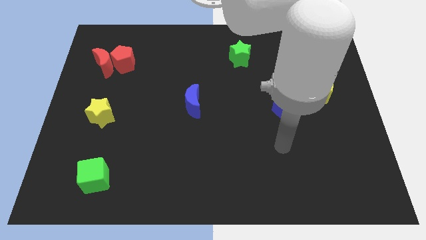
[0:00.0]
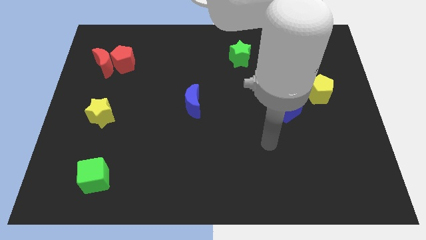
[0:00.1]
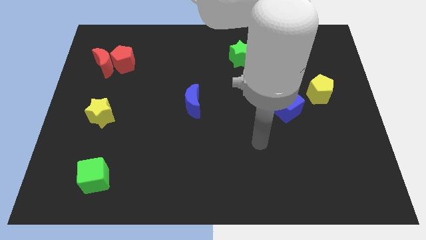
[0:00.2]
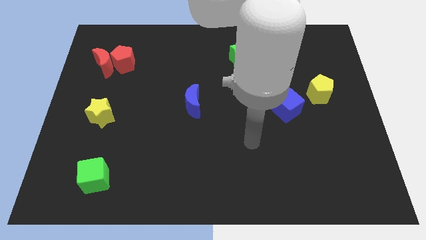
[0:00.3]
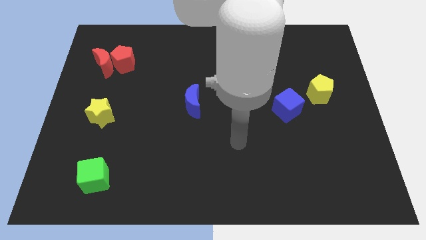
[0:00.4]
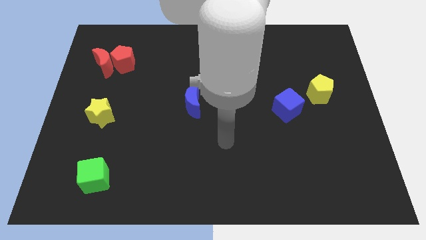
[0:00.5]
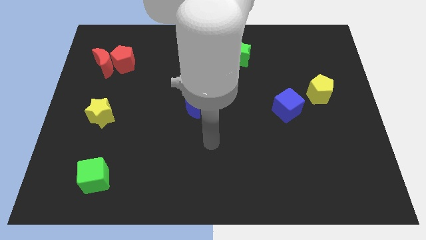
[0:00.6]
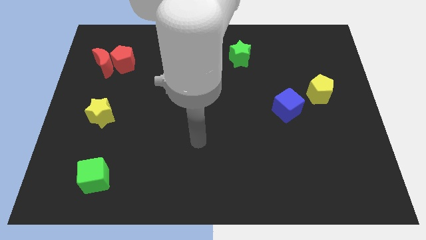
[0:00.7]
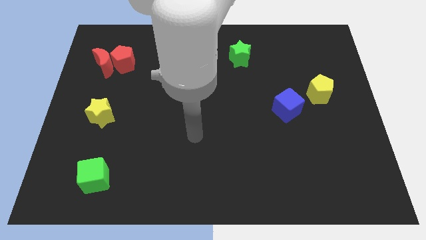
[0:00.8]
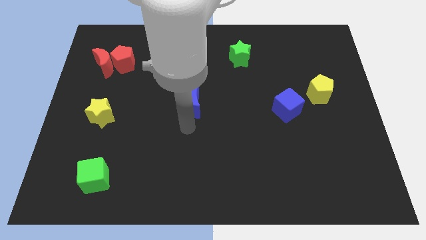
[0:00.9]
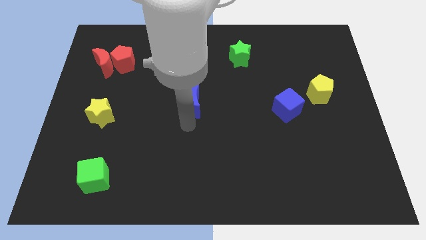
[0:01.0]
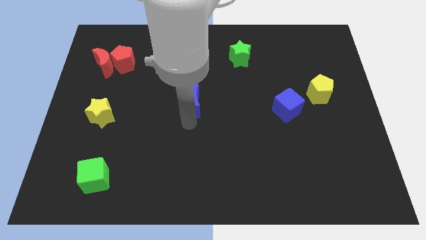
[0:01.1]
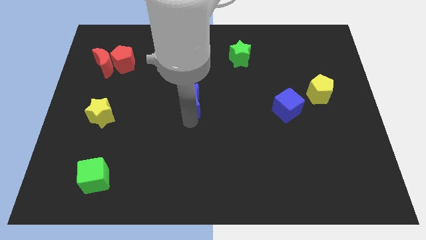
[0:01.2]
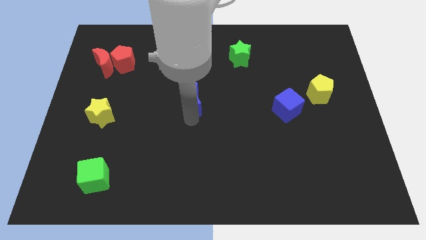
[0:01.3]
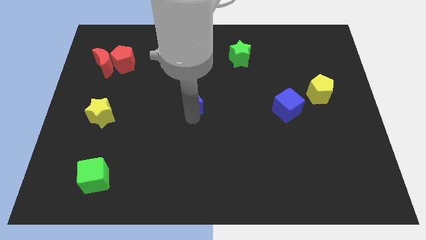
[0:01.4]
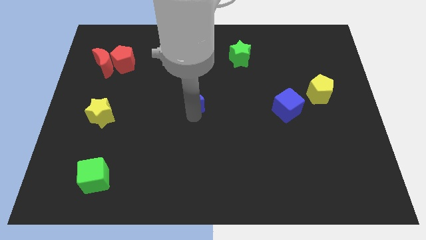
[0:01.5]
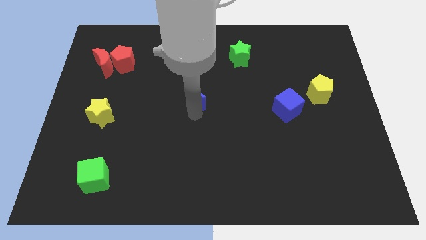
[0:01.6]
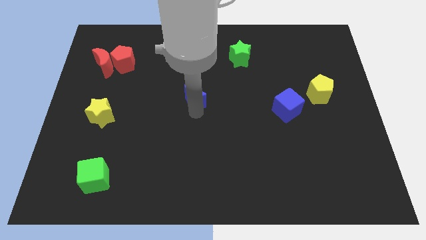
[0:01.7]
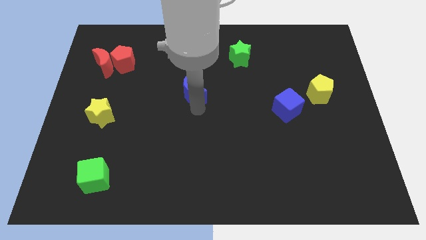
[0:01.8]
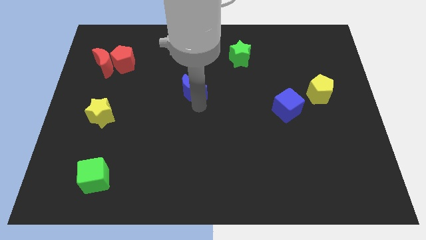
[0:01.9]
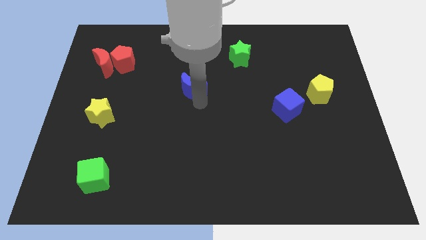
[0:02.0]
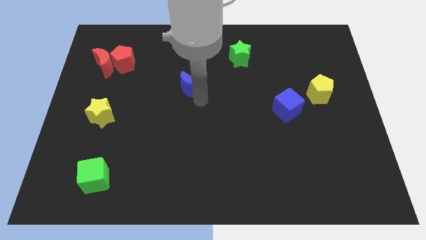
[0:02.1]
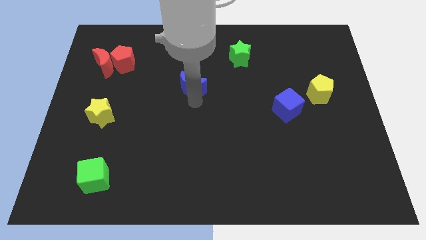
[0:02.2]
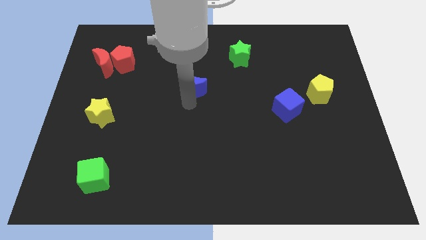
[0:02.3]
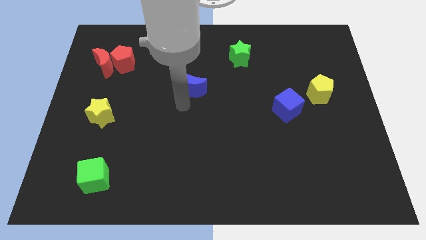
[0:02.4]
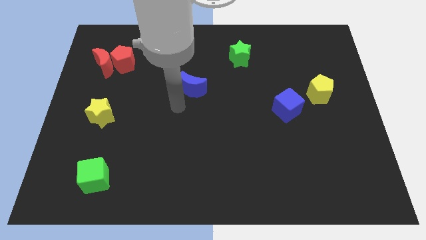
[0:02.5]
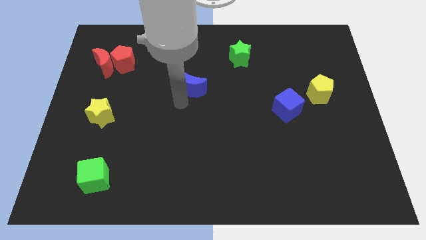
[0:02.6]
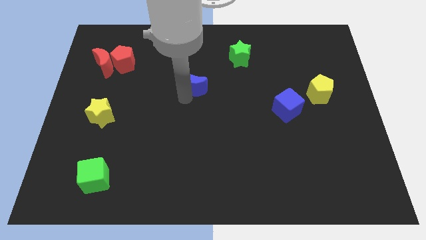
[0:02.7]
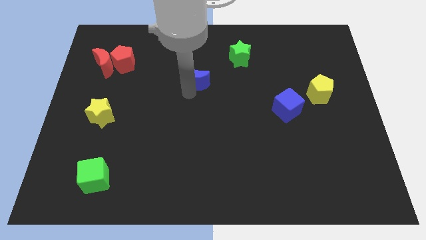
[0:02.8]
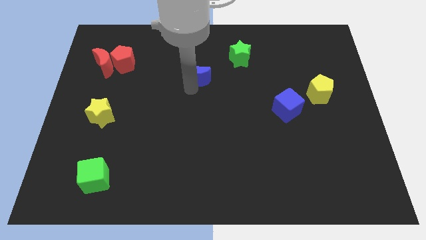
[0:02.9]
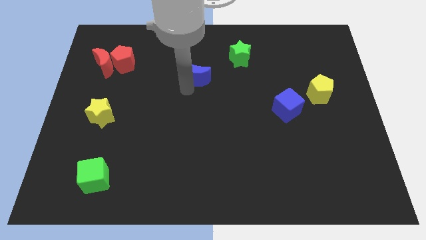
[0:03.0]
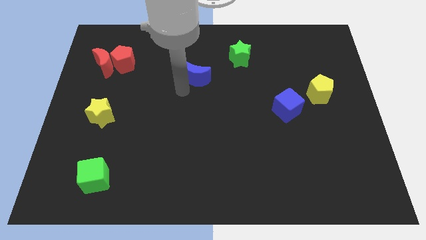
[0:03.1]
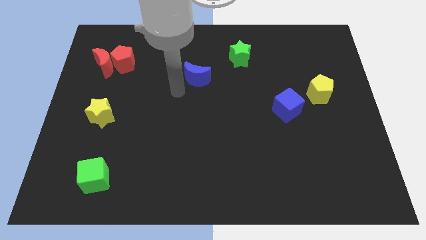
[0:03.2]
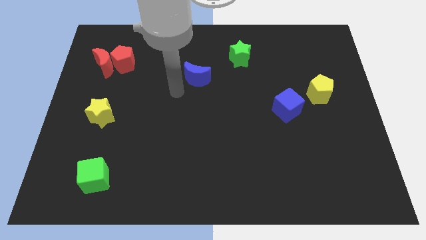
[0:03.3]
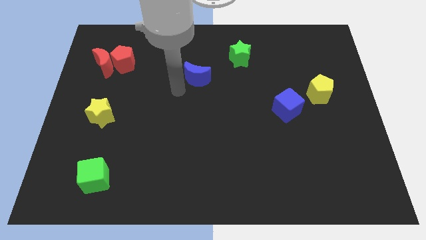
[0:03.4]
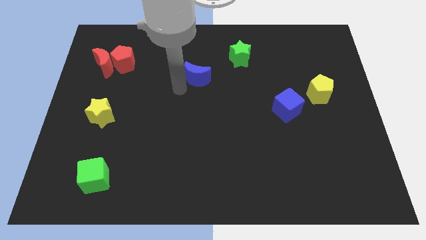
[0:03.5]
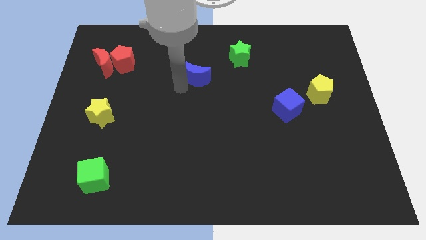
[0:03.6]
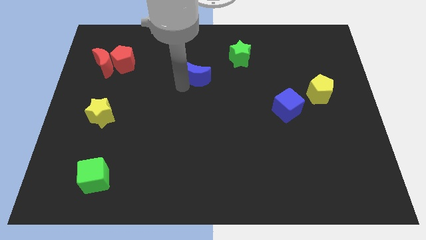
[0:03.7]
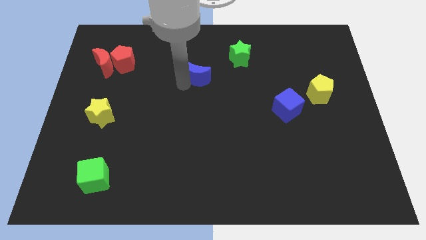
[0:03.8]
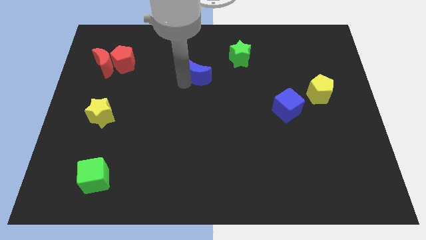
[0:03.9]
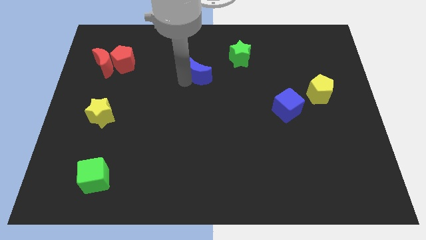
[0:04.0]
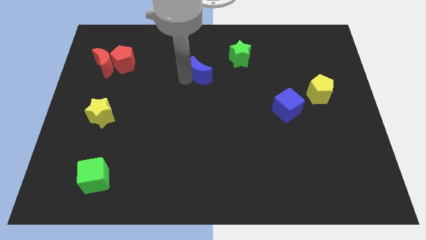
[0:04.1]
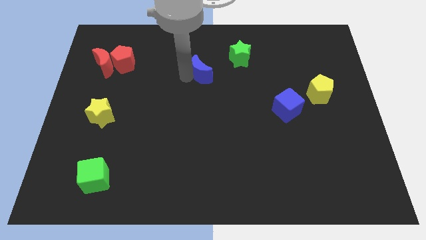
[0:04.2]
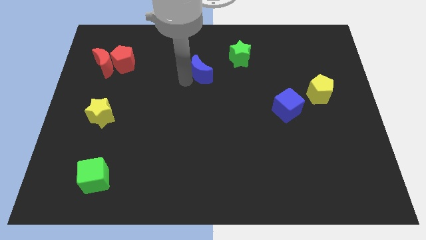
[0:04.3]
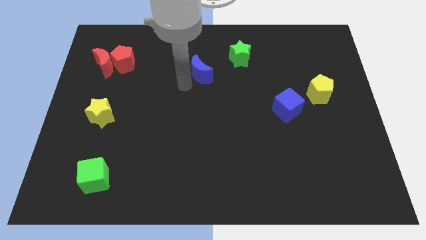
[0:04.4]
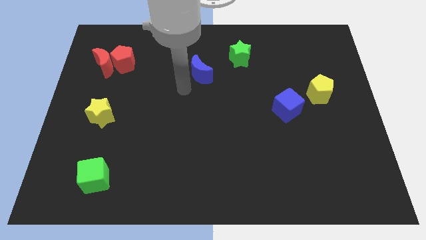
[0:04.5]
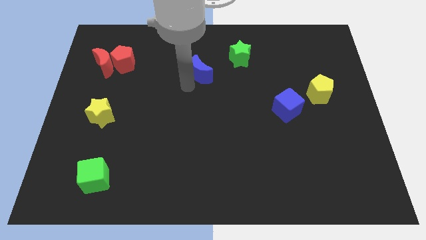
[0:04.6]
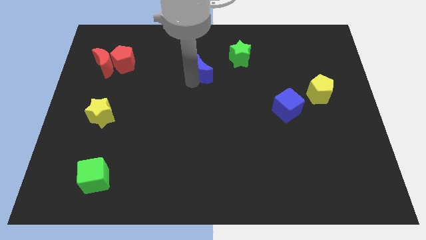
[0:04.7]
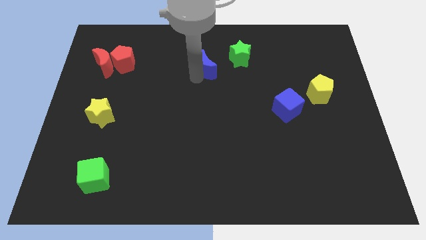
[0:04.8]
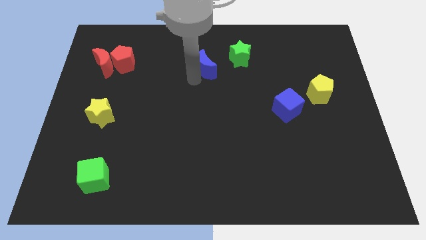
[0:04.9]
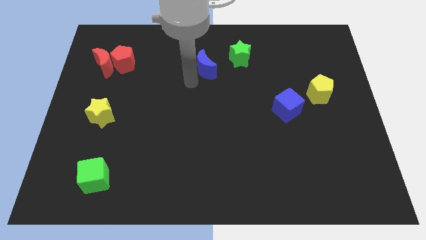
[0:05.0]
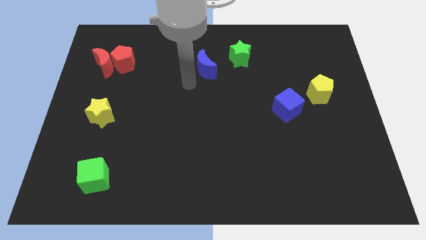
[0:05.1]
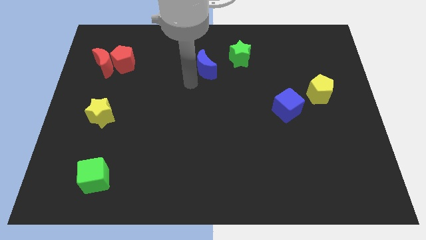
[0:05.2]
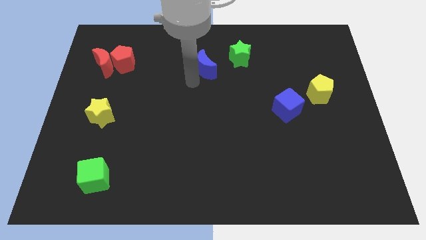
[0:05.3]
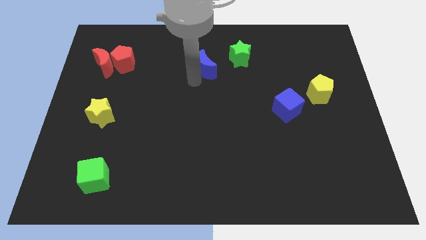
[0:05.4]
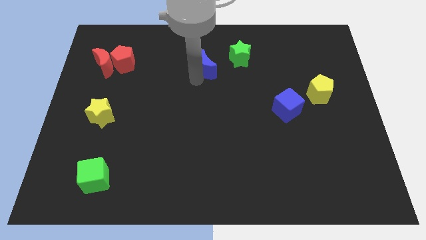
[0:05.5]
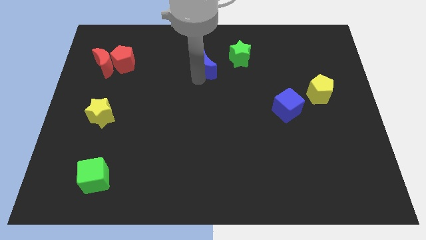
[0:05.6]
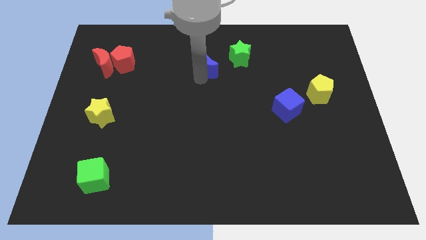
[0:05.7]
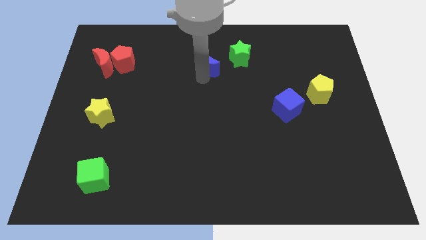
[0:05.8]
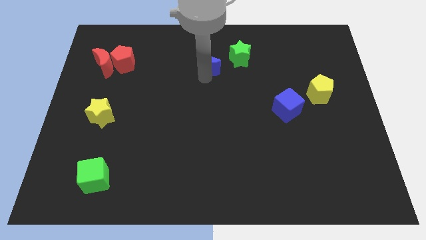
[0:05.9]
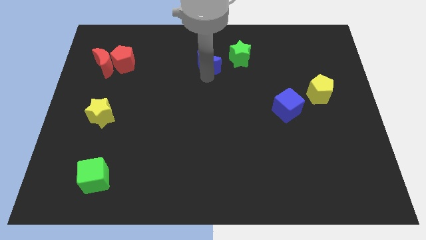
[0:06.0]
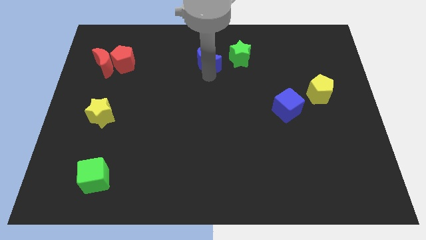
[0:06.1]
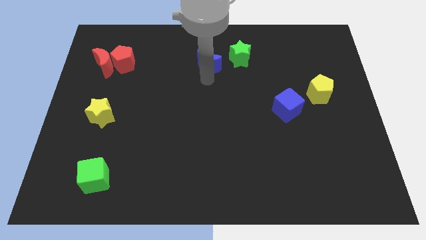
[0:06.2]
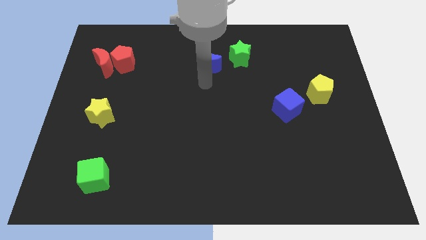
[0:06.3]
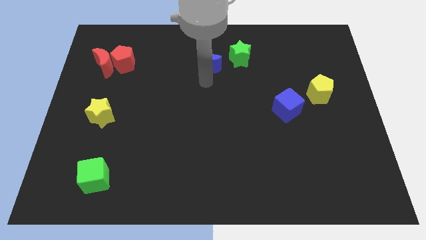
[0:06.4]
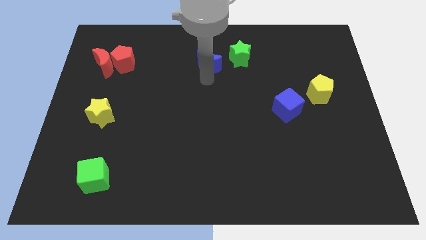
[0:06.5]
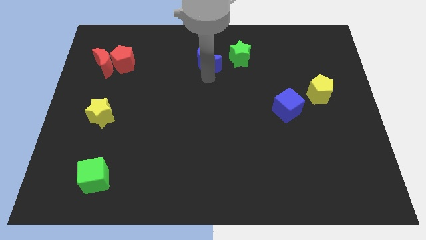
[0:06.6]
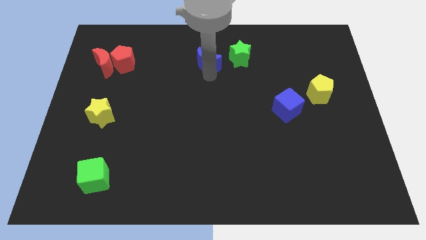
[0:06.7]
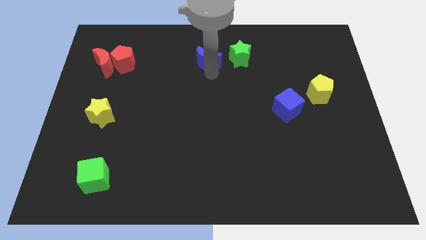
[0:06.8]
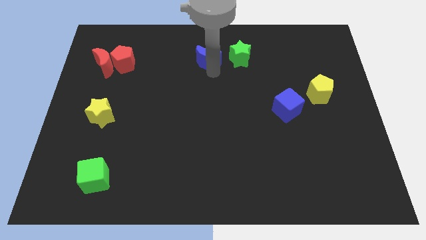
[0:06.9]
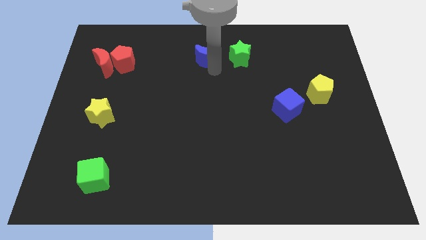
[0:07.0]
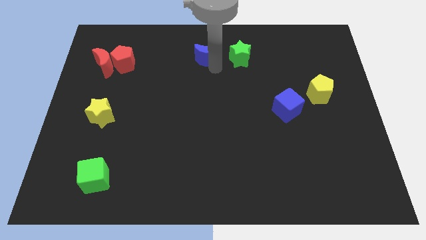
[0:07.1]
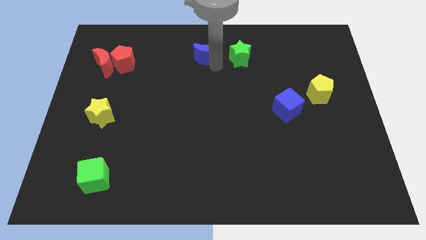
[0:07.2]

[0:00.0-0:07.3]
push the blue moon to the towards your base

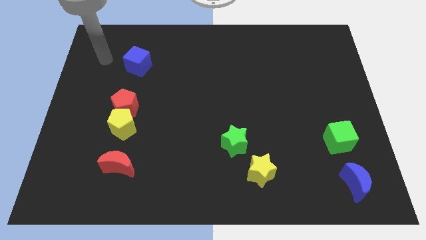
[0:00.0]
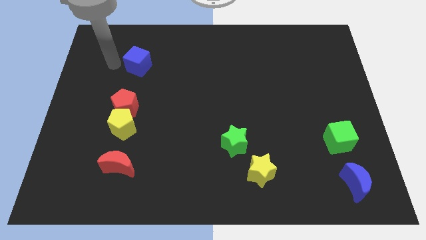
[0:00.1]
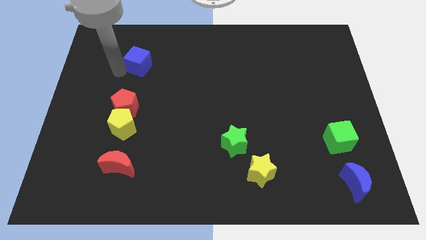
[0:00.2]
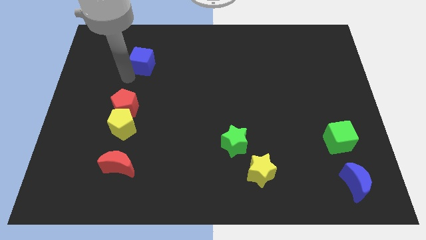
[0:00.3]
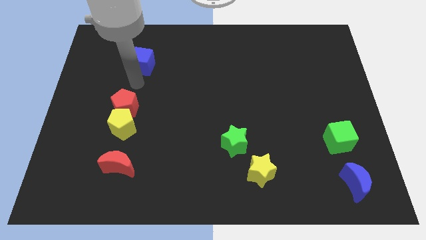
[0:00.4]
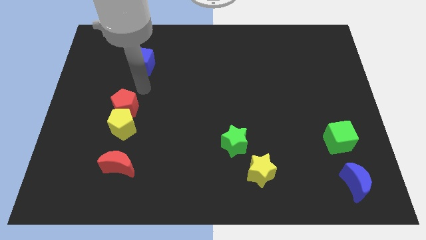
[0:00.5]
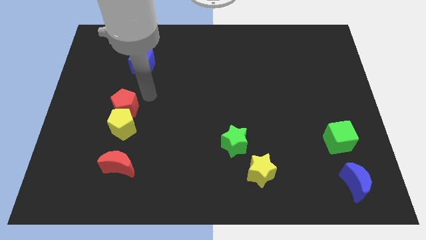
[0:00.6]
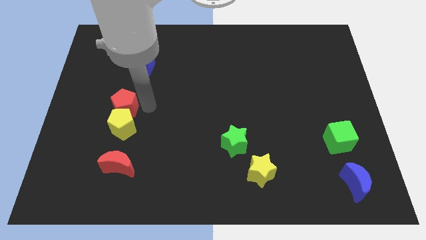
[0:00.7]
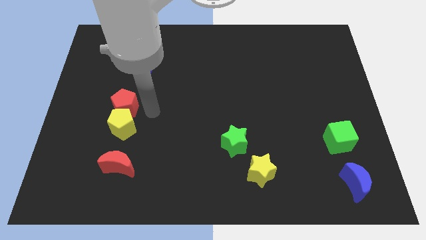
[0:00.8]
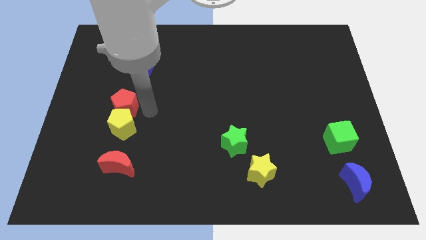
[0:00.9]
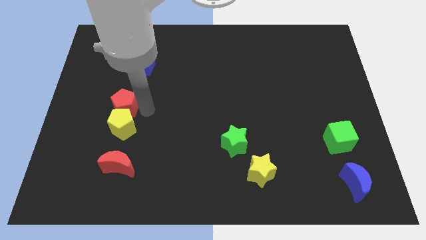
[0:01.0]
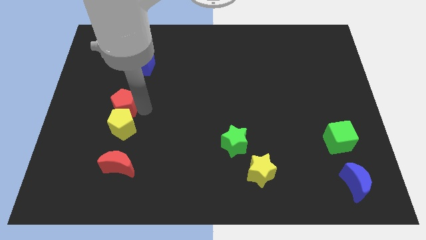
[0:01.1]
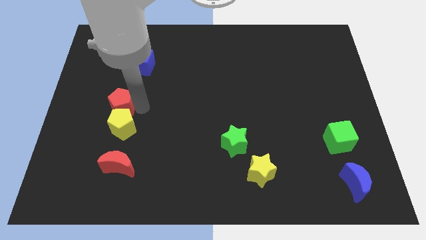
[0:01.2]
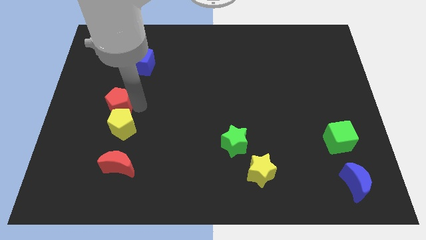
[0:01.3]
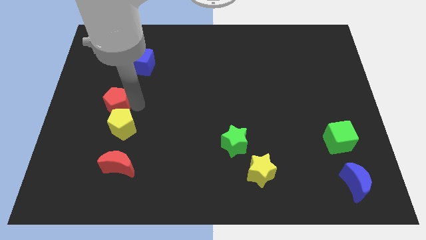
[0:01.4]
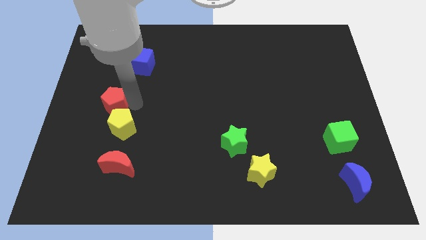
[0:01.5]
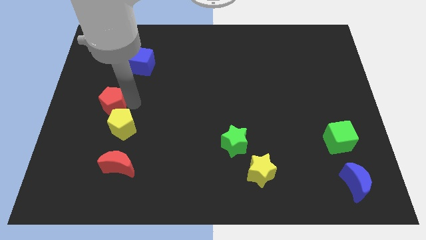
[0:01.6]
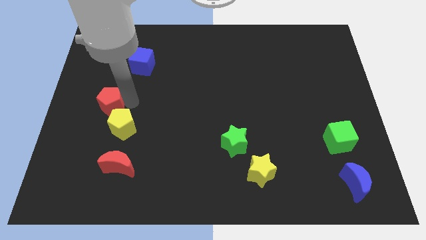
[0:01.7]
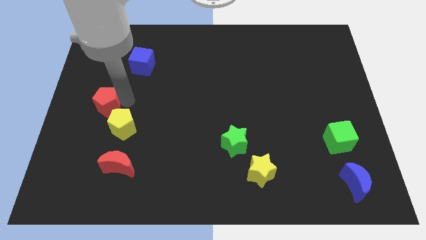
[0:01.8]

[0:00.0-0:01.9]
put the red pentagon to the center left
